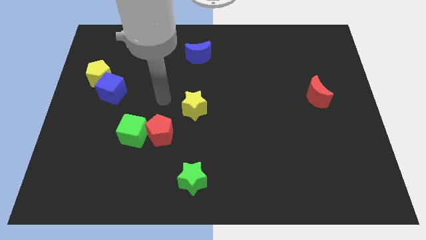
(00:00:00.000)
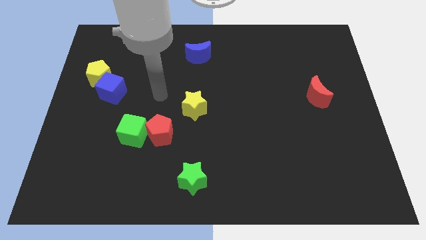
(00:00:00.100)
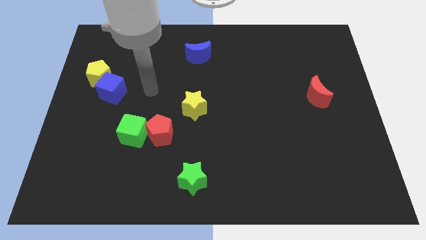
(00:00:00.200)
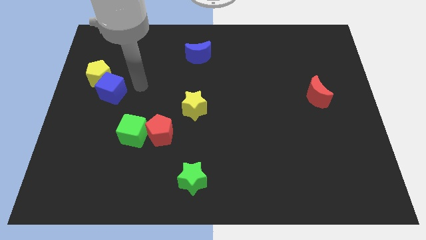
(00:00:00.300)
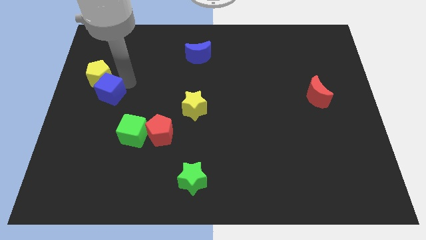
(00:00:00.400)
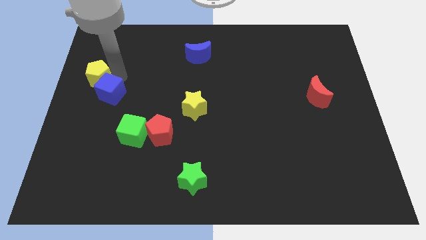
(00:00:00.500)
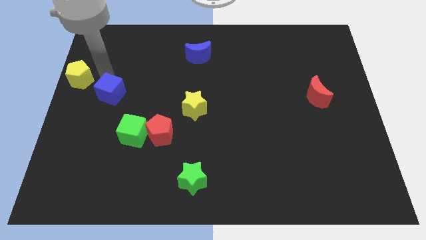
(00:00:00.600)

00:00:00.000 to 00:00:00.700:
separate the blue cube from the yellow pentagon

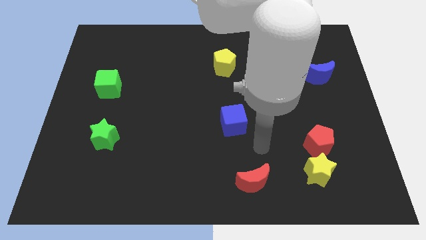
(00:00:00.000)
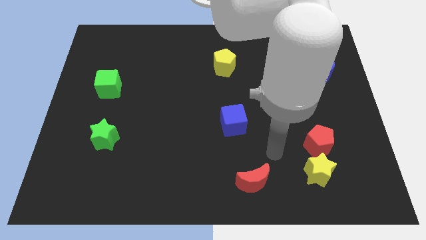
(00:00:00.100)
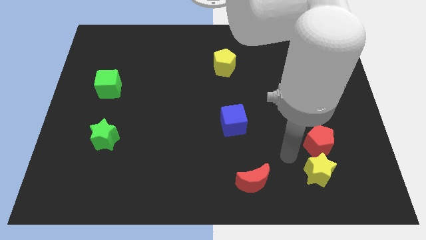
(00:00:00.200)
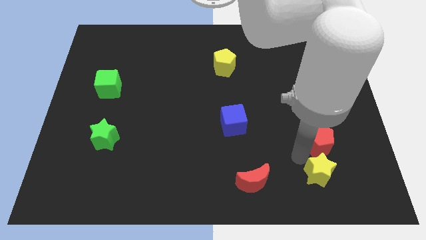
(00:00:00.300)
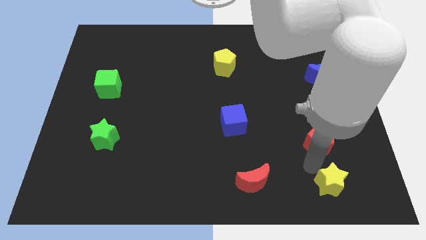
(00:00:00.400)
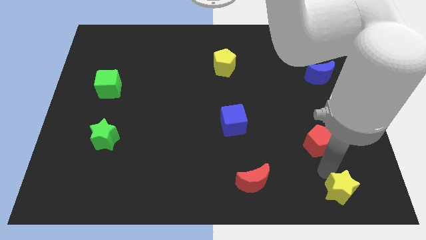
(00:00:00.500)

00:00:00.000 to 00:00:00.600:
separate the red pentagon from the yellow star

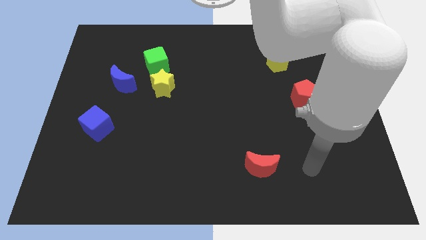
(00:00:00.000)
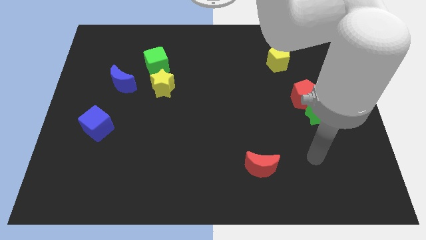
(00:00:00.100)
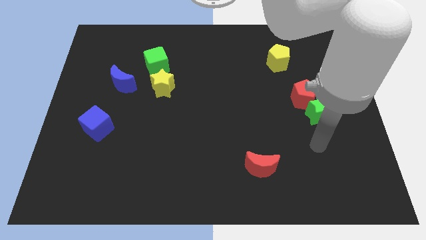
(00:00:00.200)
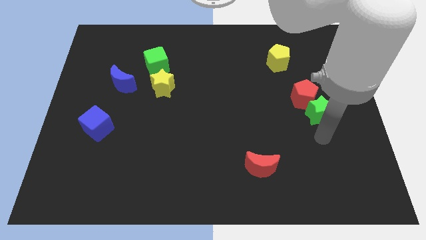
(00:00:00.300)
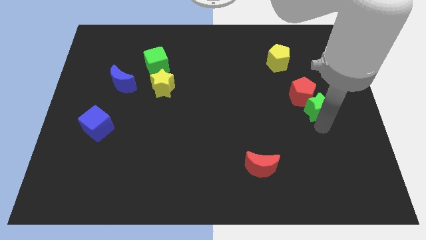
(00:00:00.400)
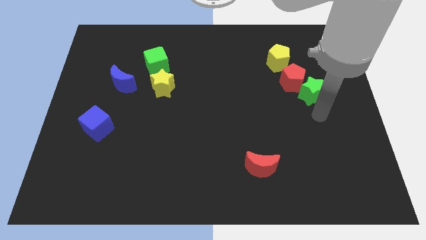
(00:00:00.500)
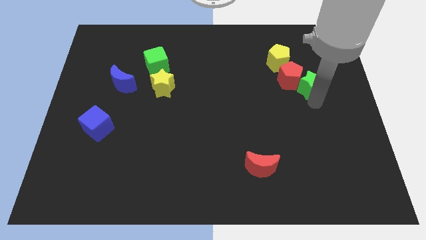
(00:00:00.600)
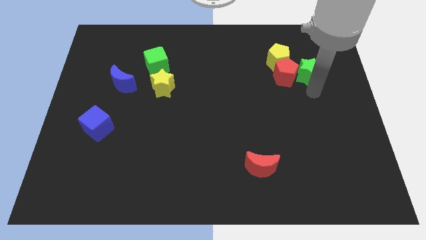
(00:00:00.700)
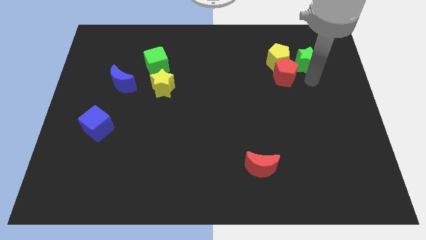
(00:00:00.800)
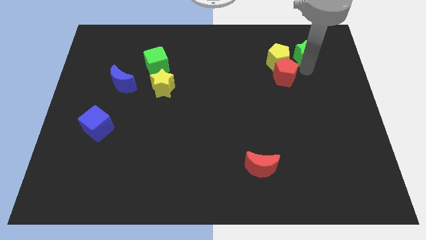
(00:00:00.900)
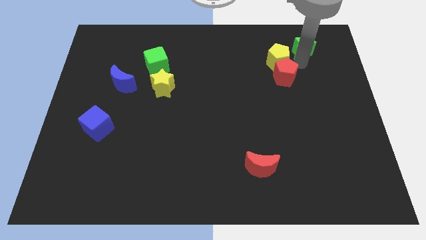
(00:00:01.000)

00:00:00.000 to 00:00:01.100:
move the red pentagon away from the green star

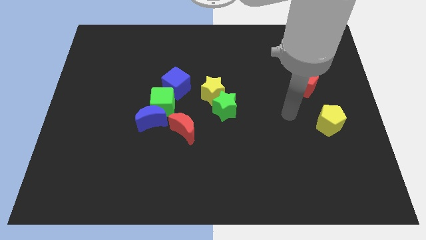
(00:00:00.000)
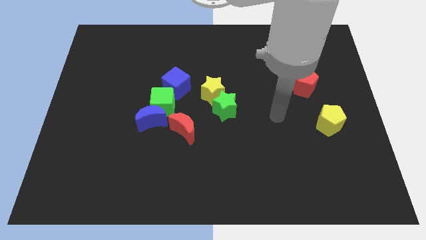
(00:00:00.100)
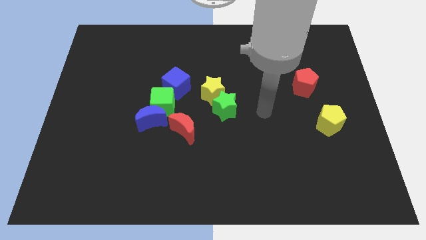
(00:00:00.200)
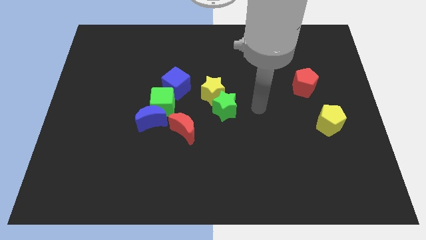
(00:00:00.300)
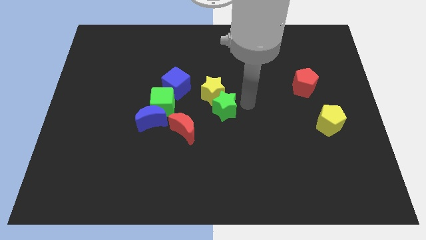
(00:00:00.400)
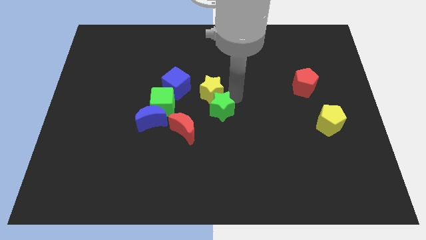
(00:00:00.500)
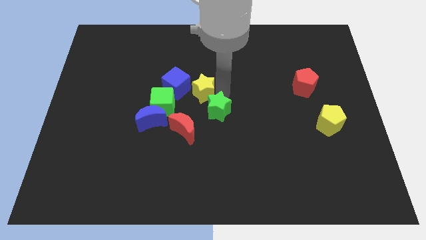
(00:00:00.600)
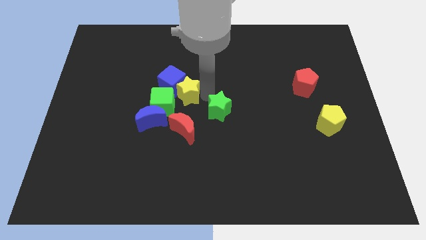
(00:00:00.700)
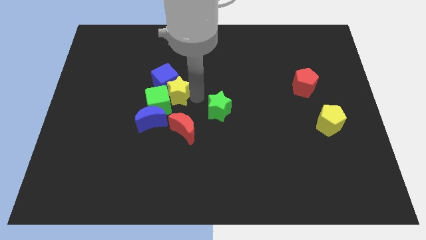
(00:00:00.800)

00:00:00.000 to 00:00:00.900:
separate the green star from the yellow star

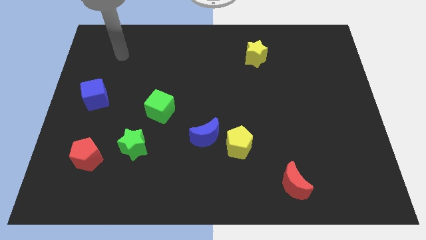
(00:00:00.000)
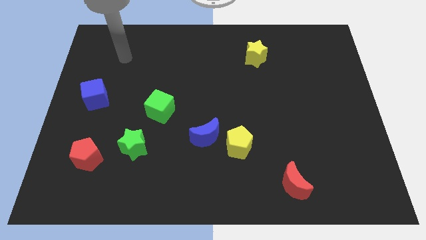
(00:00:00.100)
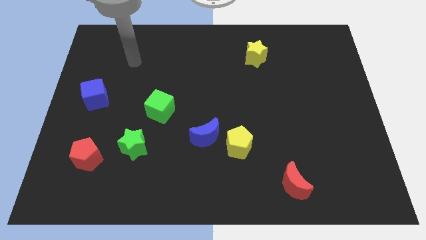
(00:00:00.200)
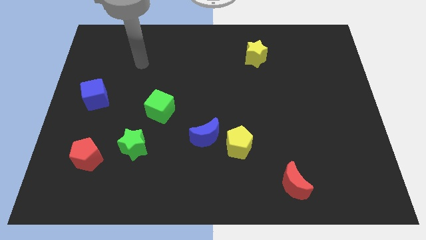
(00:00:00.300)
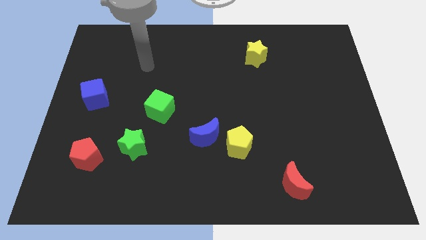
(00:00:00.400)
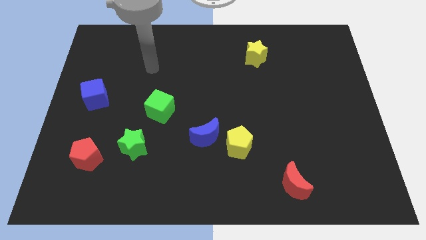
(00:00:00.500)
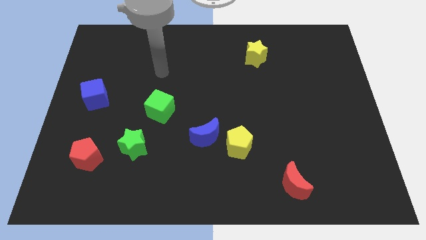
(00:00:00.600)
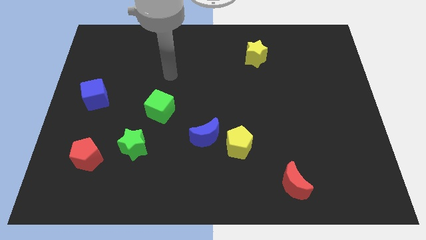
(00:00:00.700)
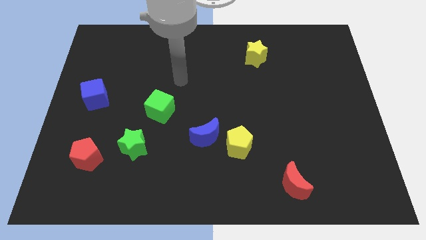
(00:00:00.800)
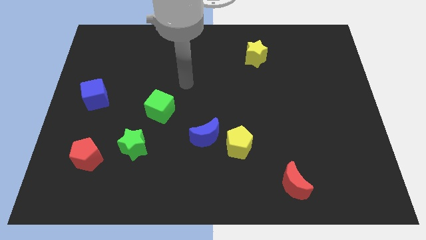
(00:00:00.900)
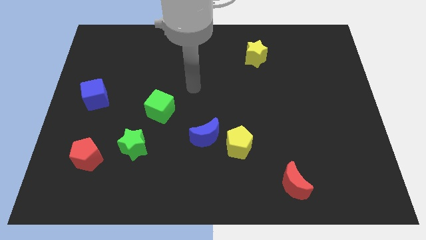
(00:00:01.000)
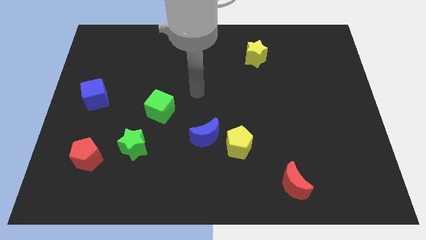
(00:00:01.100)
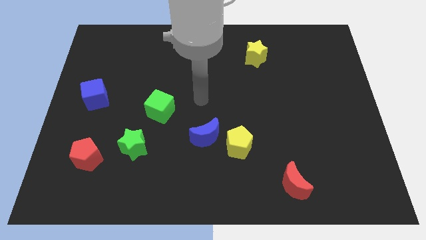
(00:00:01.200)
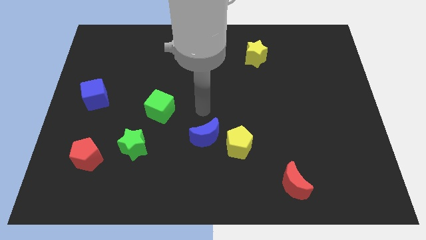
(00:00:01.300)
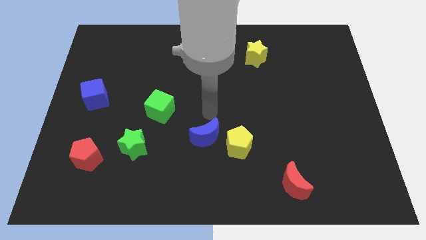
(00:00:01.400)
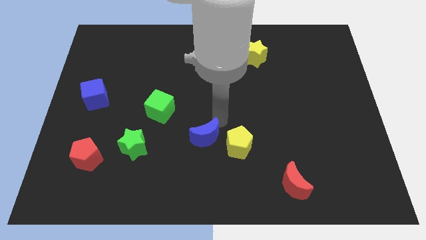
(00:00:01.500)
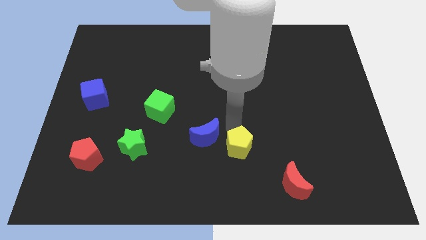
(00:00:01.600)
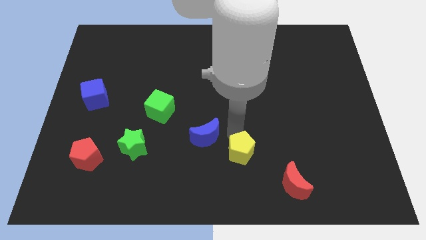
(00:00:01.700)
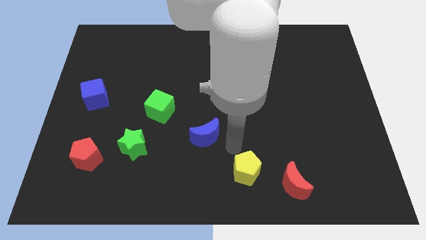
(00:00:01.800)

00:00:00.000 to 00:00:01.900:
separate the blue moon from the yellow pentagon

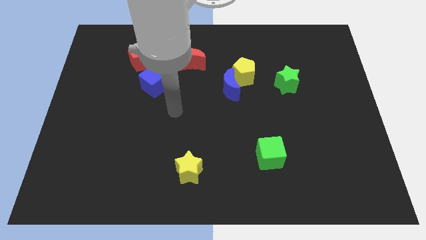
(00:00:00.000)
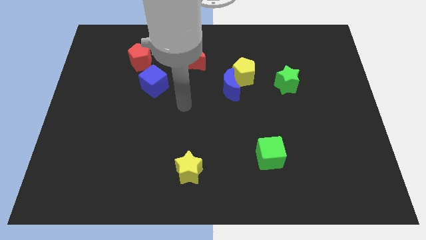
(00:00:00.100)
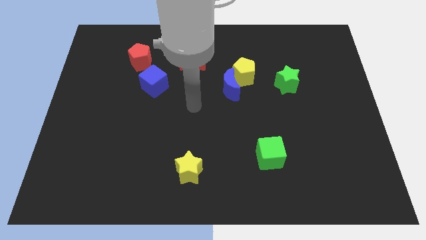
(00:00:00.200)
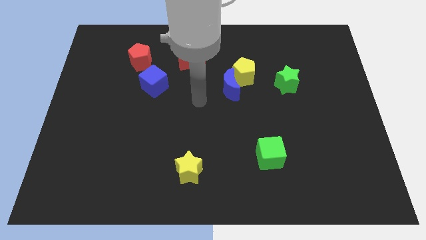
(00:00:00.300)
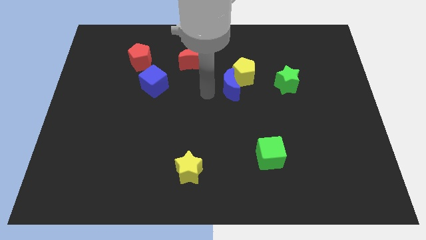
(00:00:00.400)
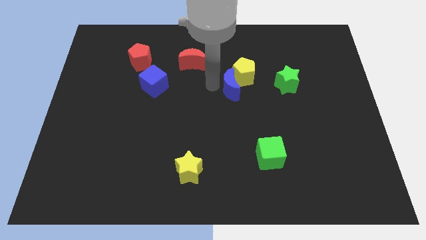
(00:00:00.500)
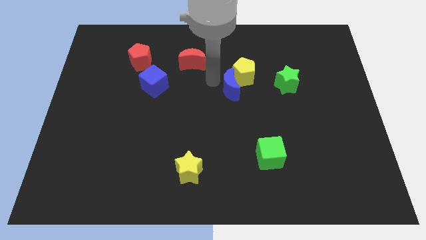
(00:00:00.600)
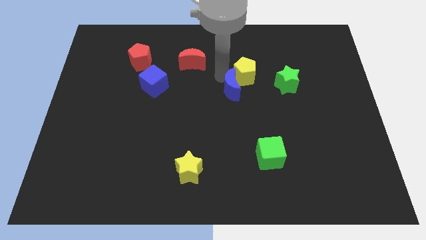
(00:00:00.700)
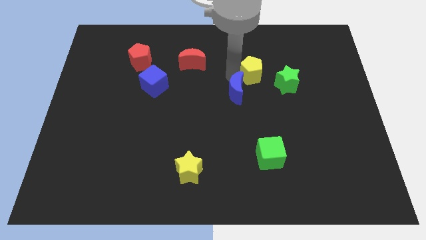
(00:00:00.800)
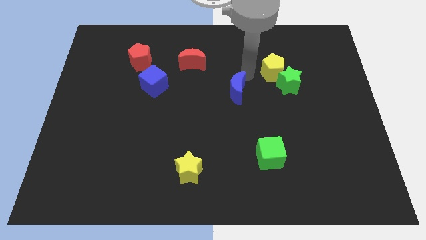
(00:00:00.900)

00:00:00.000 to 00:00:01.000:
pull the blue moon apart from the yellow pentagon

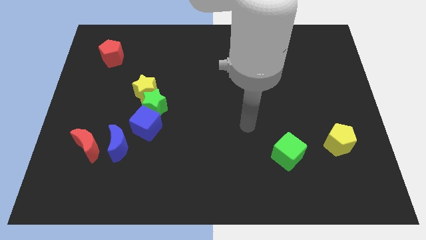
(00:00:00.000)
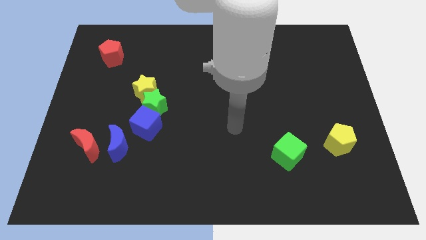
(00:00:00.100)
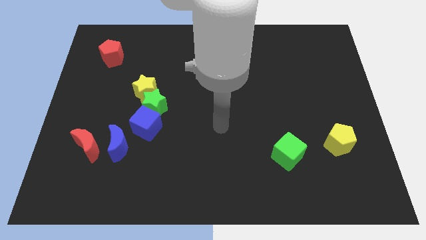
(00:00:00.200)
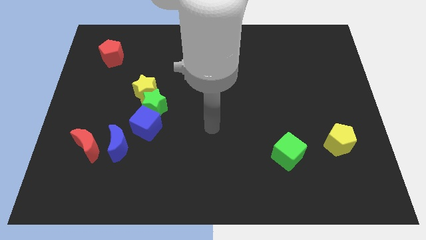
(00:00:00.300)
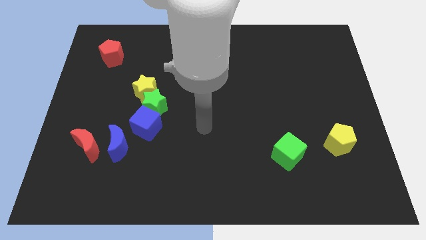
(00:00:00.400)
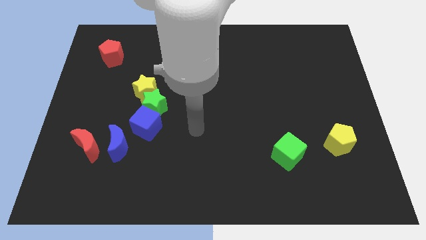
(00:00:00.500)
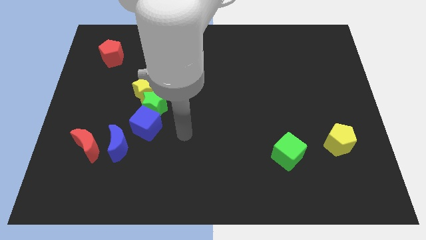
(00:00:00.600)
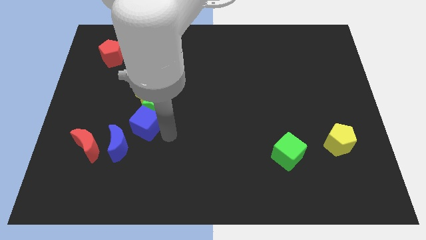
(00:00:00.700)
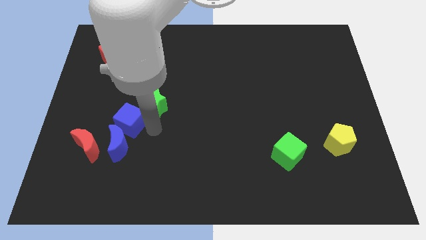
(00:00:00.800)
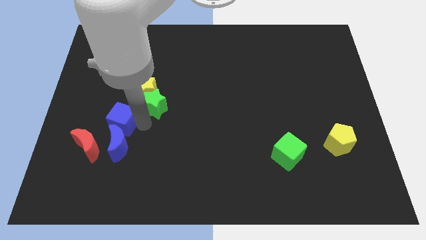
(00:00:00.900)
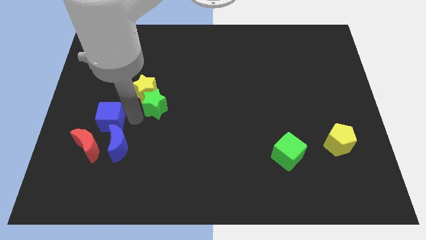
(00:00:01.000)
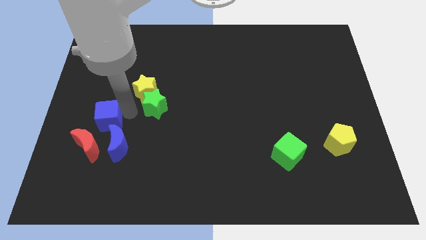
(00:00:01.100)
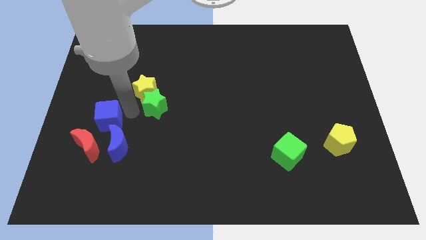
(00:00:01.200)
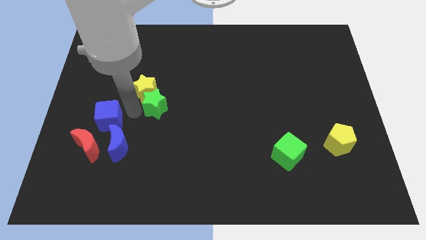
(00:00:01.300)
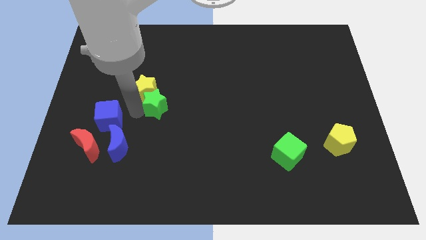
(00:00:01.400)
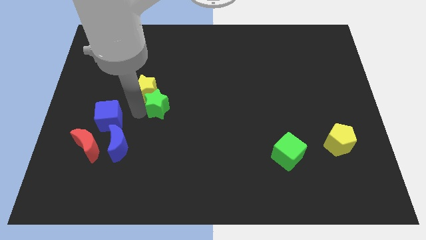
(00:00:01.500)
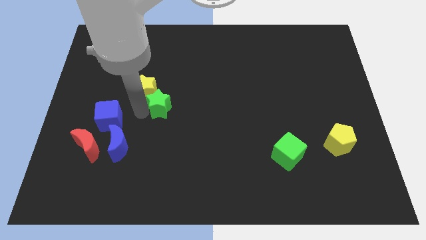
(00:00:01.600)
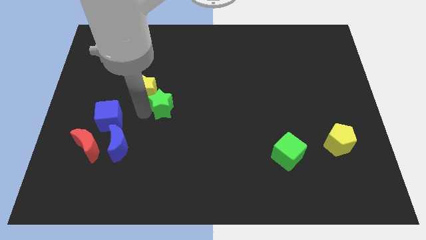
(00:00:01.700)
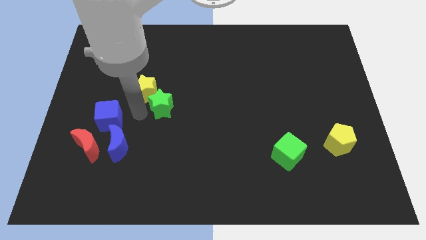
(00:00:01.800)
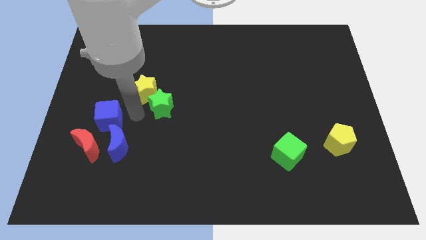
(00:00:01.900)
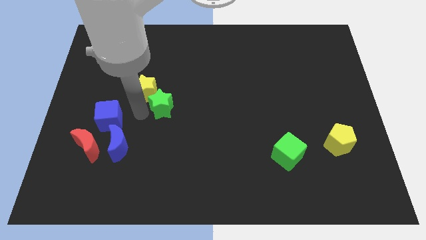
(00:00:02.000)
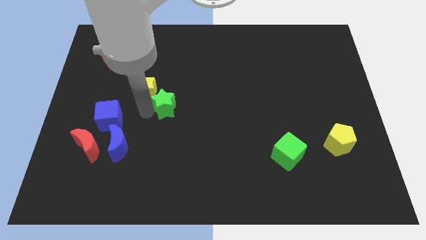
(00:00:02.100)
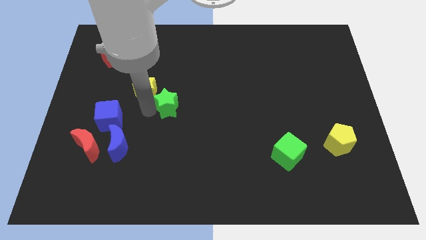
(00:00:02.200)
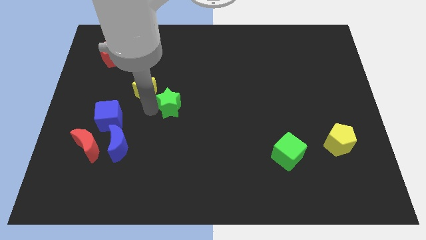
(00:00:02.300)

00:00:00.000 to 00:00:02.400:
move the green star away from the yellow star and blue cube

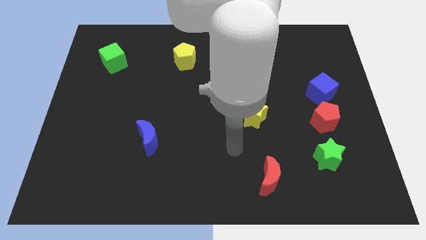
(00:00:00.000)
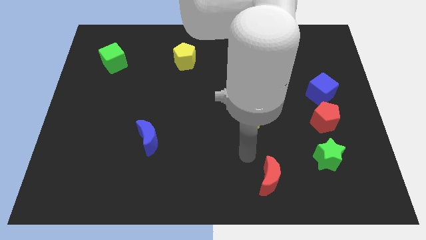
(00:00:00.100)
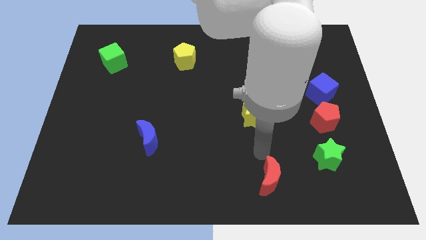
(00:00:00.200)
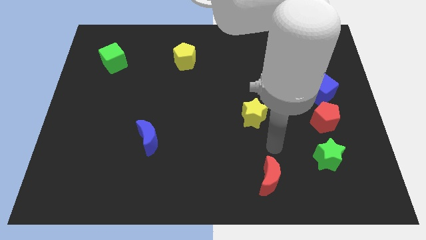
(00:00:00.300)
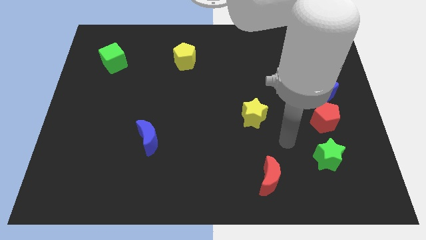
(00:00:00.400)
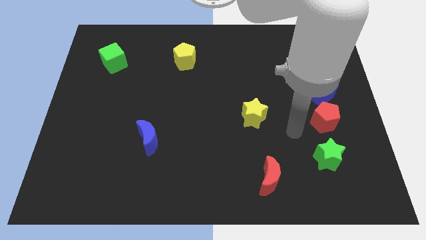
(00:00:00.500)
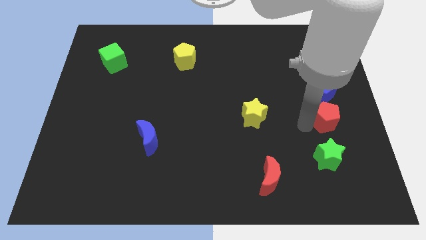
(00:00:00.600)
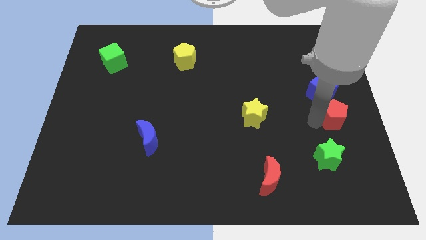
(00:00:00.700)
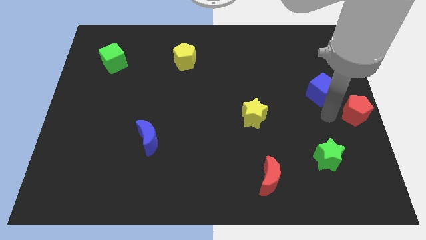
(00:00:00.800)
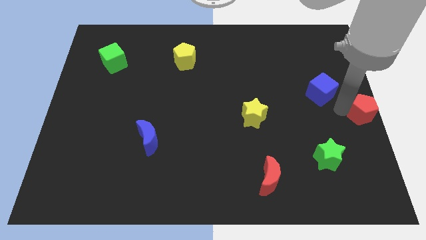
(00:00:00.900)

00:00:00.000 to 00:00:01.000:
pull the blue cube apart from the red pentagon
